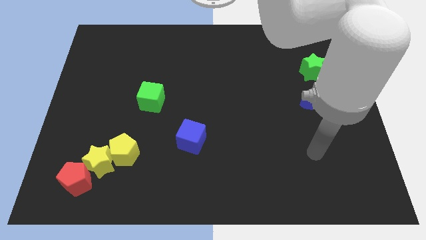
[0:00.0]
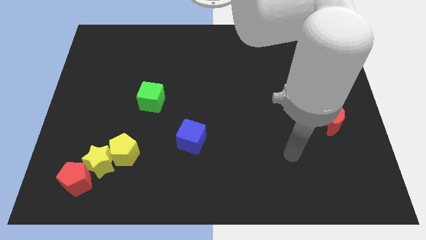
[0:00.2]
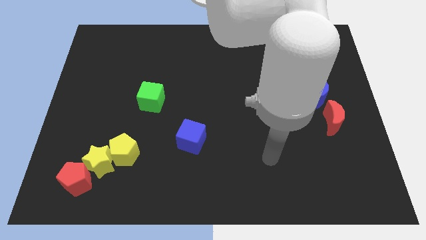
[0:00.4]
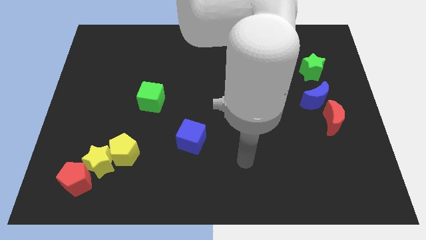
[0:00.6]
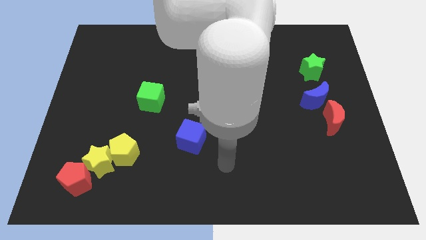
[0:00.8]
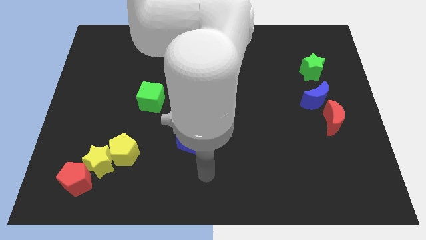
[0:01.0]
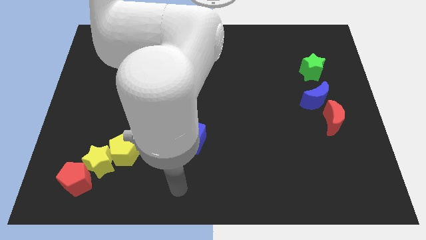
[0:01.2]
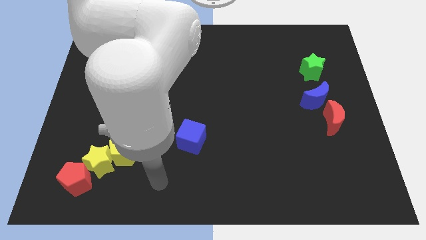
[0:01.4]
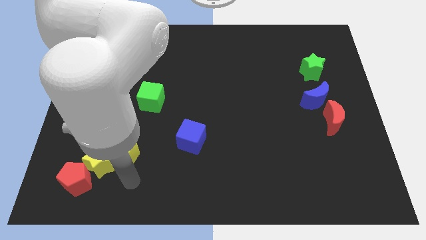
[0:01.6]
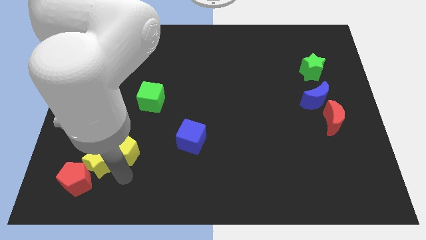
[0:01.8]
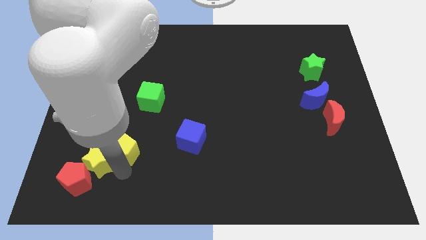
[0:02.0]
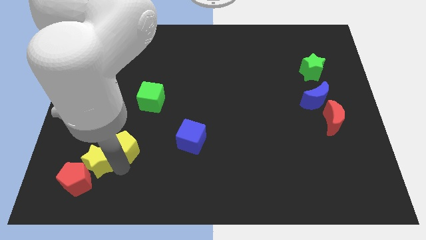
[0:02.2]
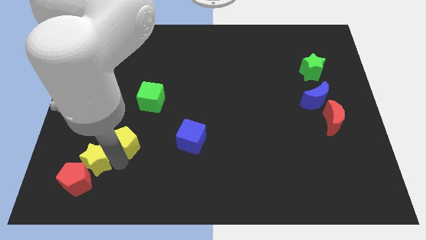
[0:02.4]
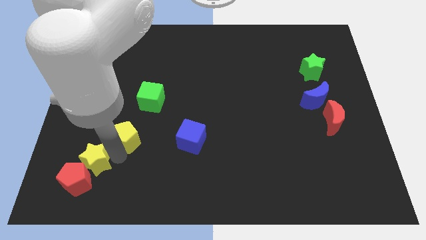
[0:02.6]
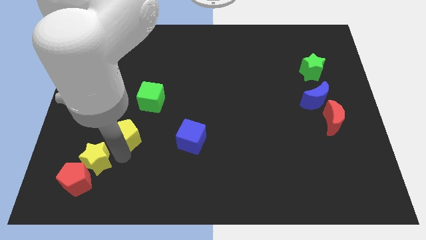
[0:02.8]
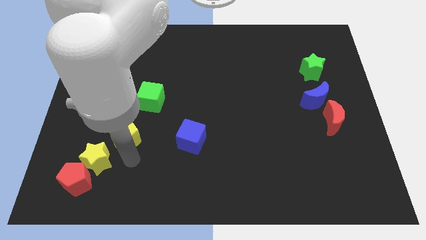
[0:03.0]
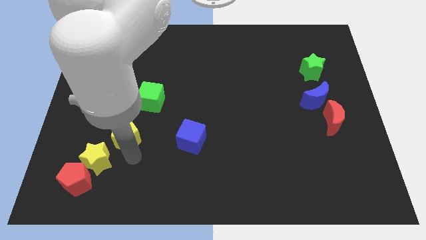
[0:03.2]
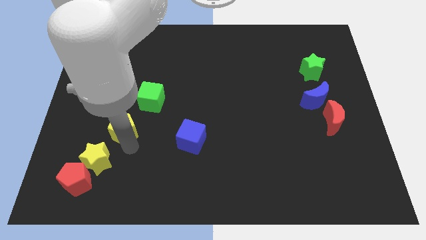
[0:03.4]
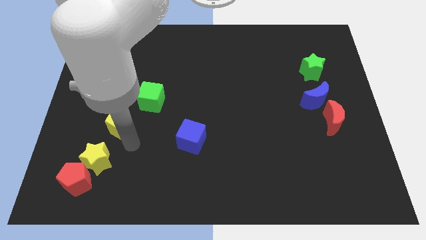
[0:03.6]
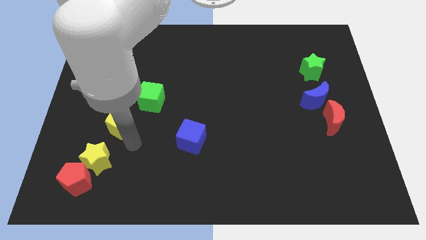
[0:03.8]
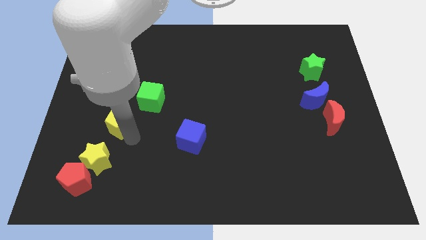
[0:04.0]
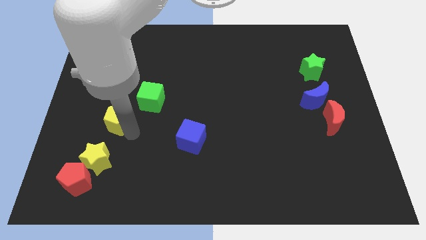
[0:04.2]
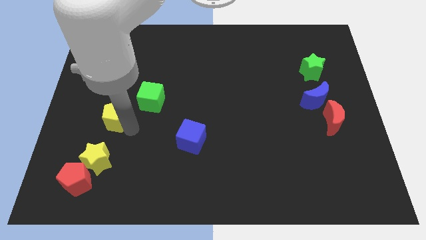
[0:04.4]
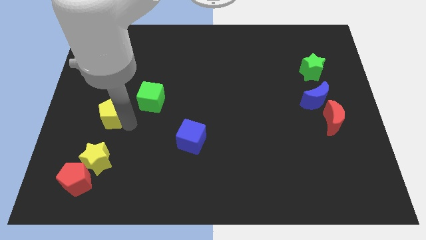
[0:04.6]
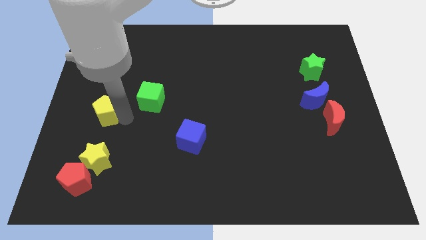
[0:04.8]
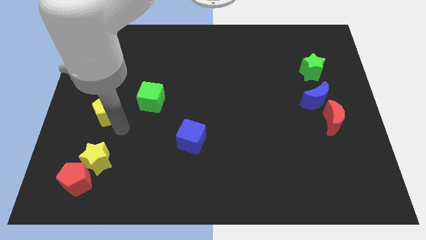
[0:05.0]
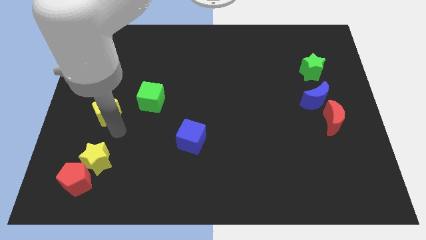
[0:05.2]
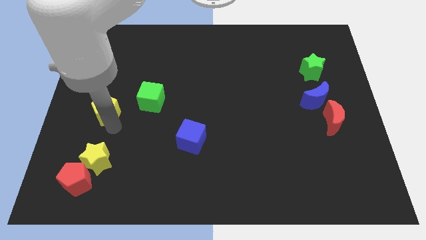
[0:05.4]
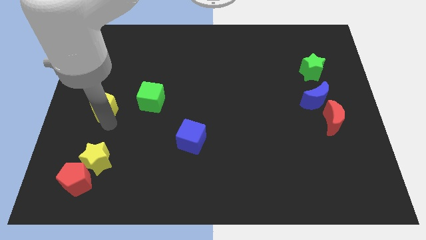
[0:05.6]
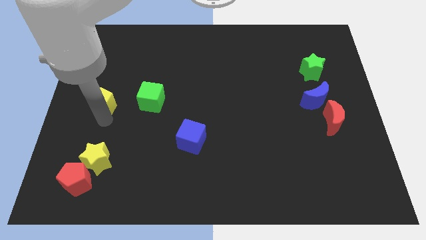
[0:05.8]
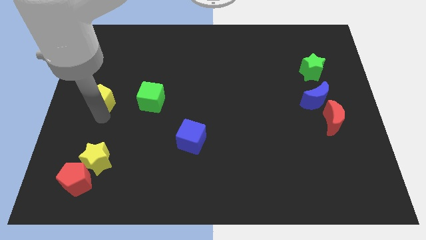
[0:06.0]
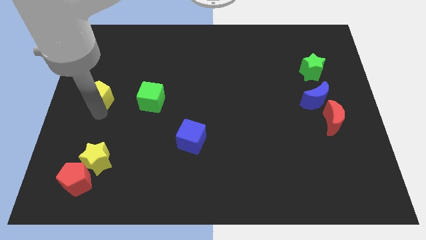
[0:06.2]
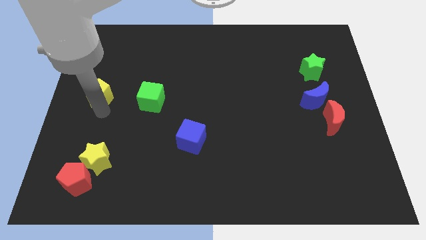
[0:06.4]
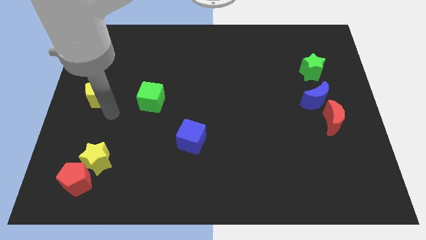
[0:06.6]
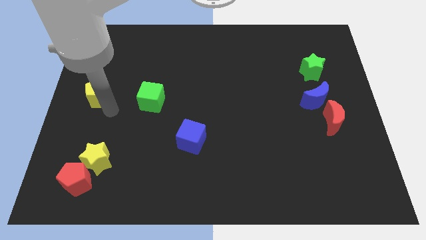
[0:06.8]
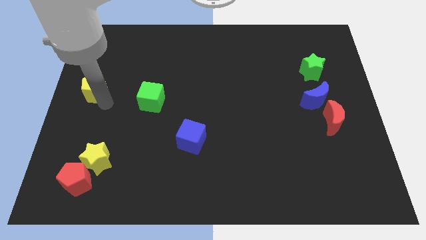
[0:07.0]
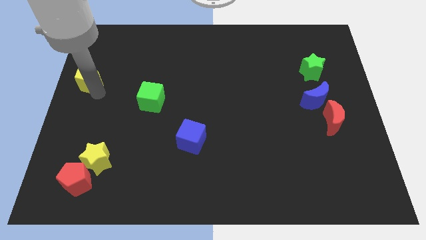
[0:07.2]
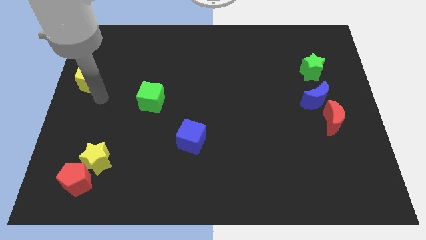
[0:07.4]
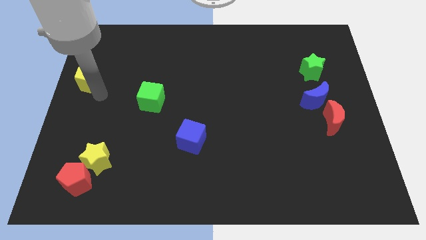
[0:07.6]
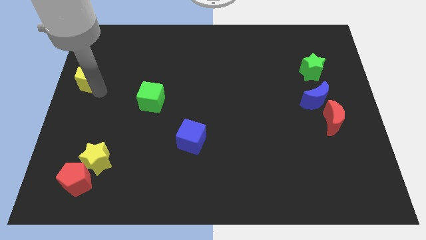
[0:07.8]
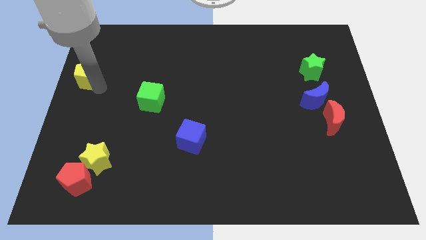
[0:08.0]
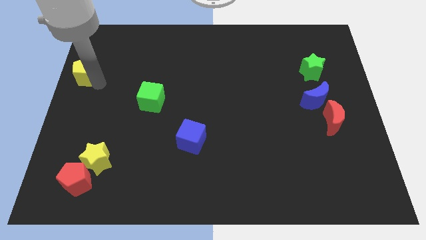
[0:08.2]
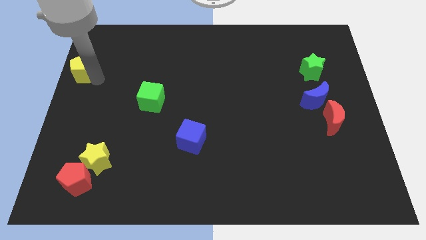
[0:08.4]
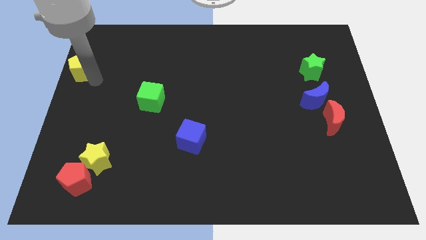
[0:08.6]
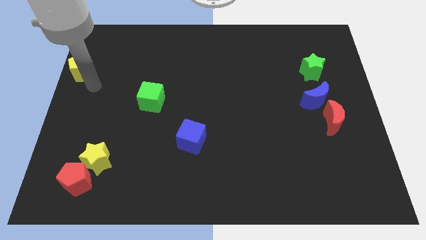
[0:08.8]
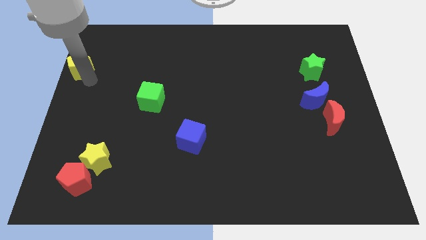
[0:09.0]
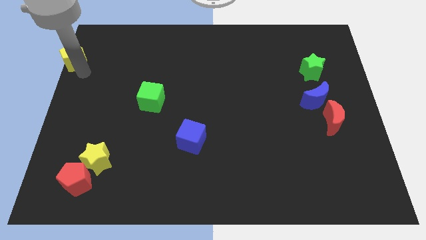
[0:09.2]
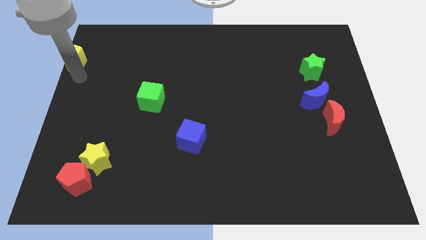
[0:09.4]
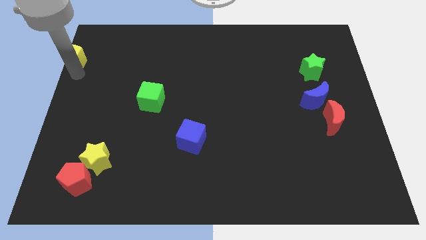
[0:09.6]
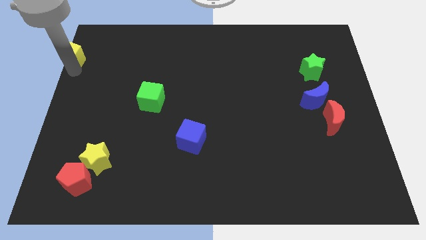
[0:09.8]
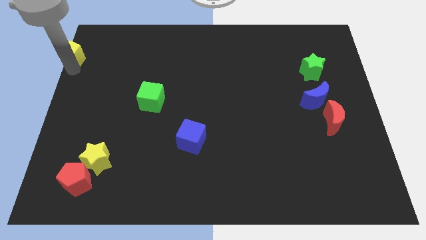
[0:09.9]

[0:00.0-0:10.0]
slide the yellow pentagon to the top left of the board

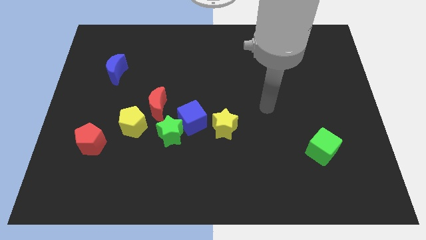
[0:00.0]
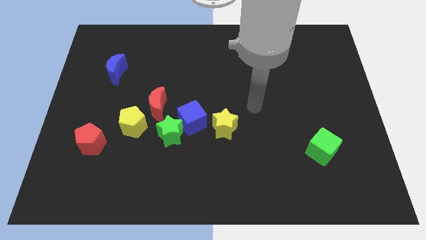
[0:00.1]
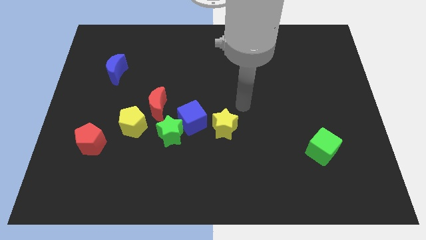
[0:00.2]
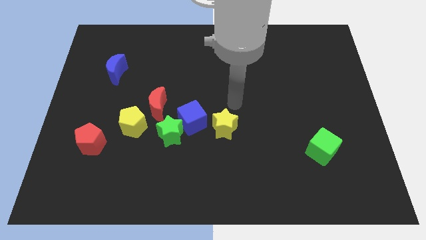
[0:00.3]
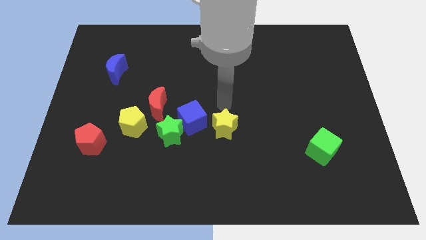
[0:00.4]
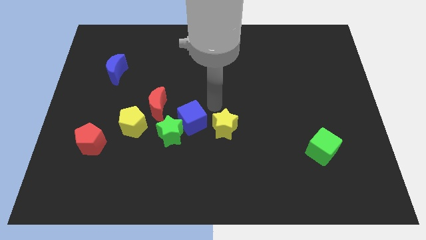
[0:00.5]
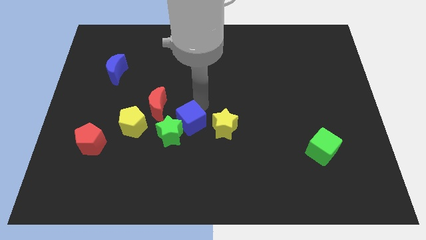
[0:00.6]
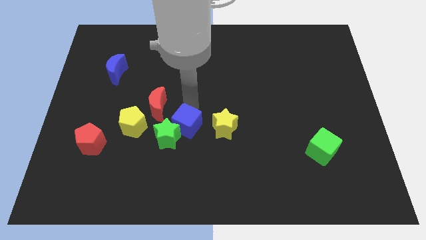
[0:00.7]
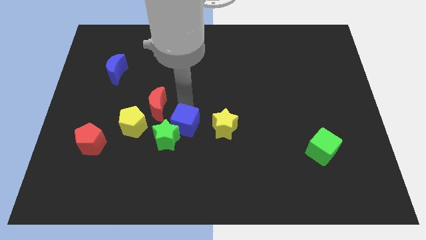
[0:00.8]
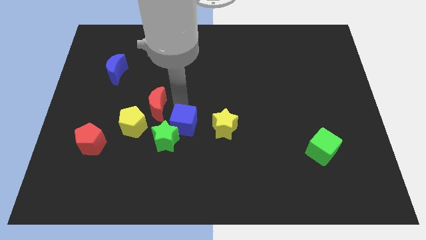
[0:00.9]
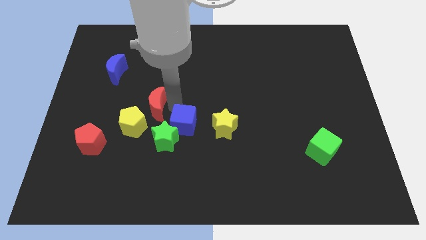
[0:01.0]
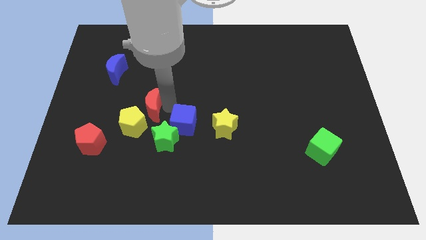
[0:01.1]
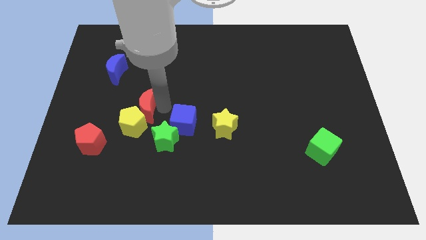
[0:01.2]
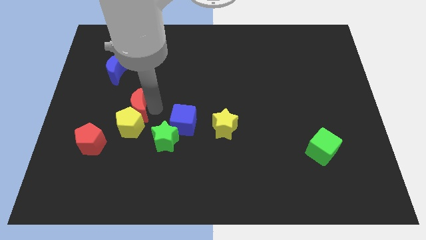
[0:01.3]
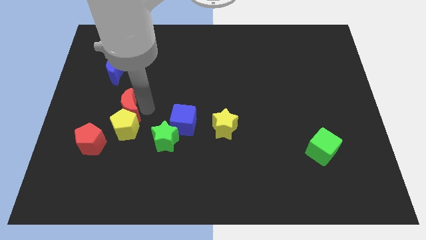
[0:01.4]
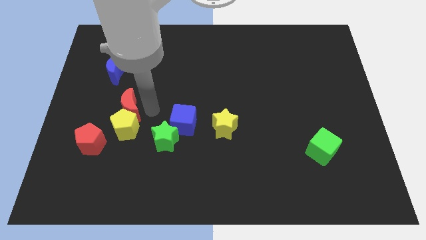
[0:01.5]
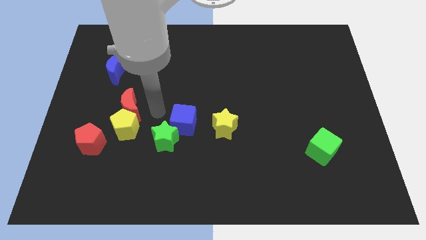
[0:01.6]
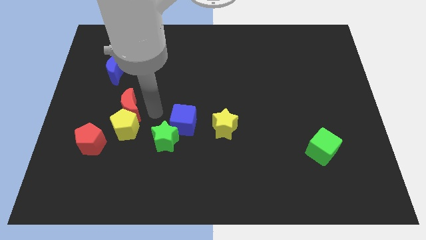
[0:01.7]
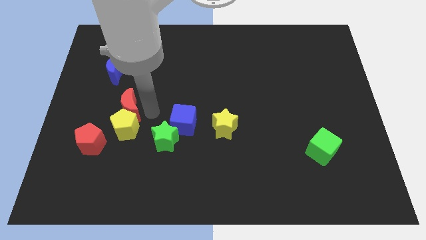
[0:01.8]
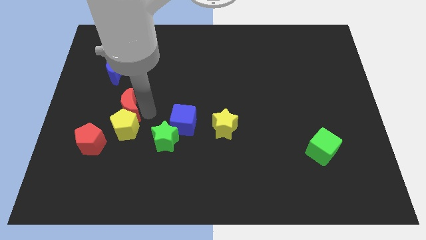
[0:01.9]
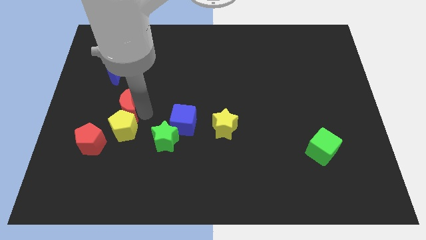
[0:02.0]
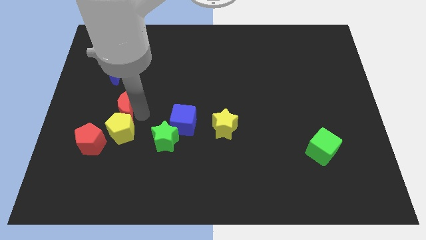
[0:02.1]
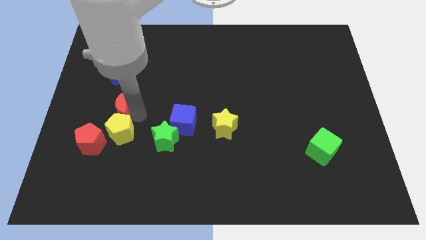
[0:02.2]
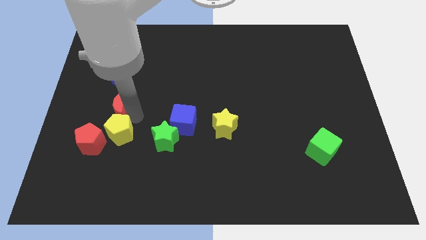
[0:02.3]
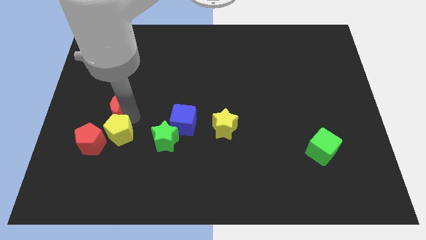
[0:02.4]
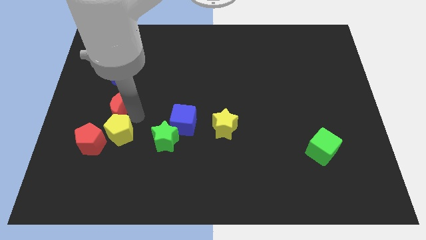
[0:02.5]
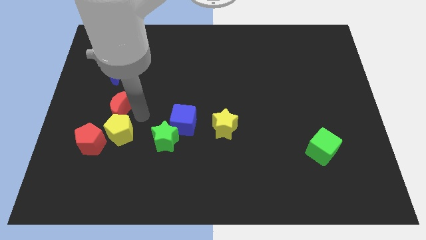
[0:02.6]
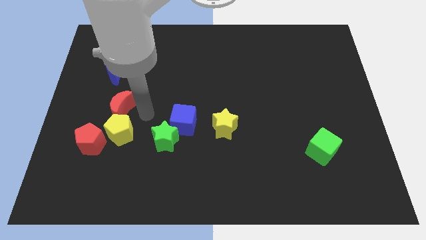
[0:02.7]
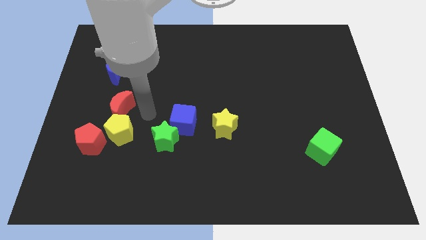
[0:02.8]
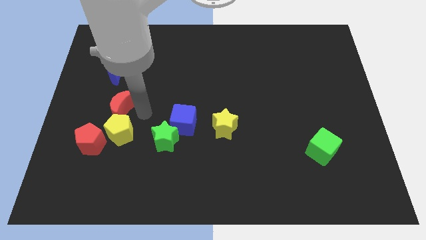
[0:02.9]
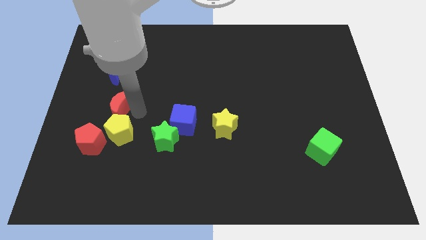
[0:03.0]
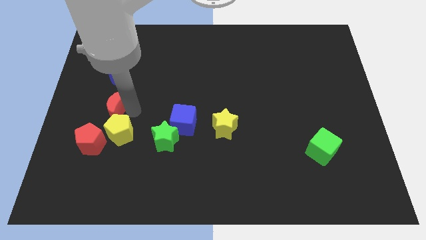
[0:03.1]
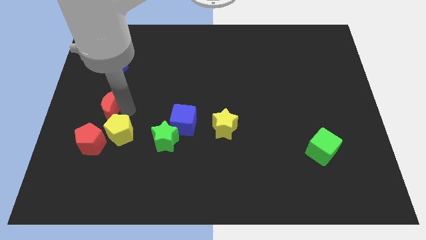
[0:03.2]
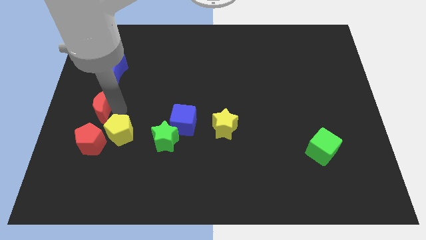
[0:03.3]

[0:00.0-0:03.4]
put the red moon to the left side of the board
